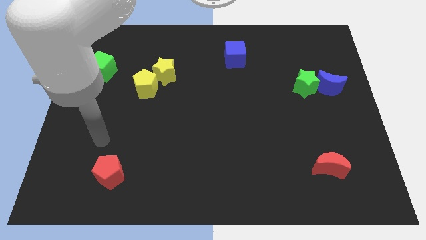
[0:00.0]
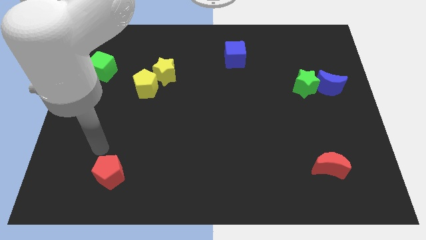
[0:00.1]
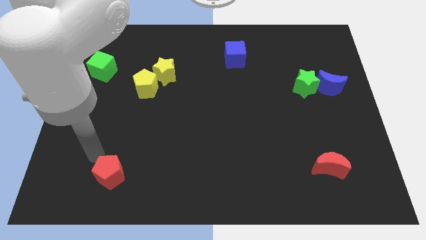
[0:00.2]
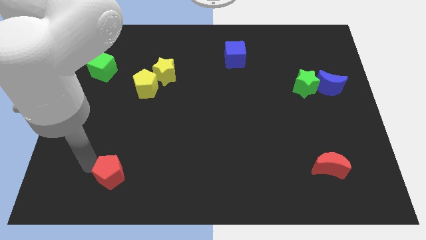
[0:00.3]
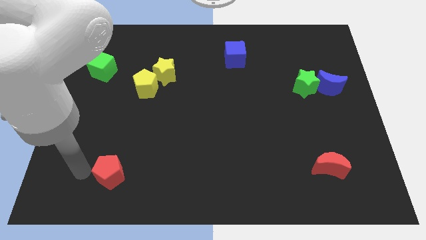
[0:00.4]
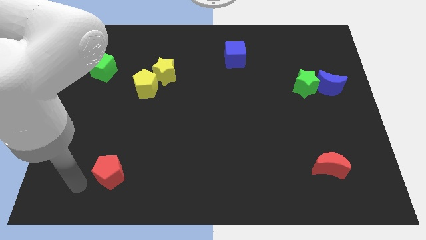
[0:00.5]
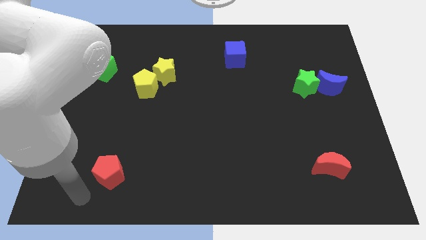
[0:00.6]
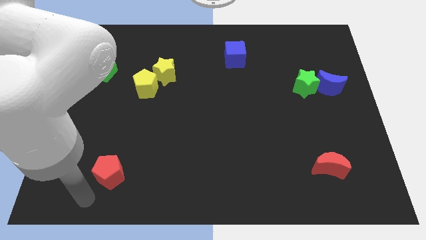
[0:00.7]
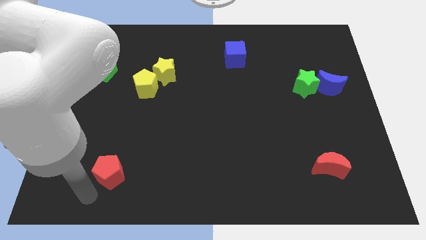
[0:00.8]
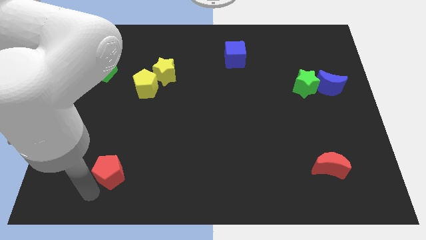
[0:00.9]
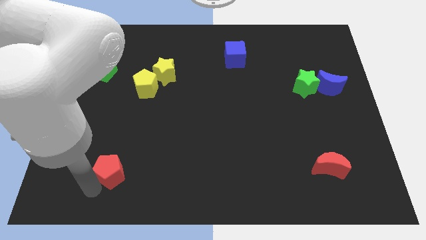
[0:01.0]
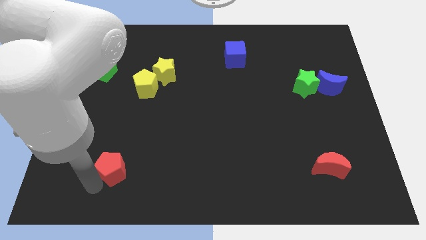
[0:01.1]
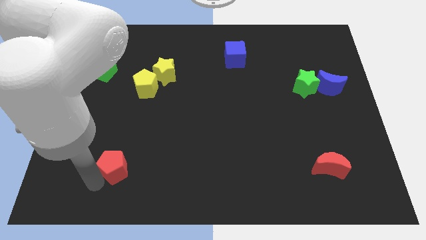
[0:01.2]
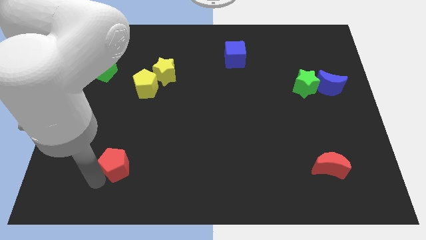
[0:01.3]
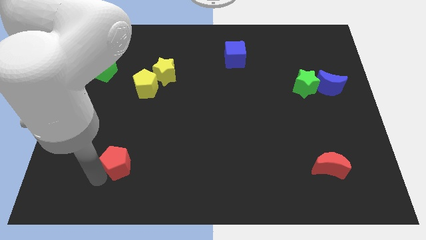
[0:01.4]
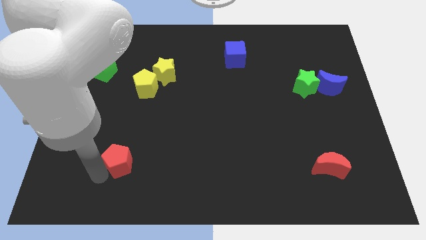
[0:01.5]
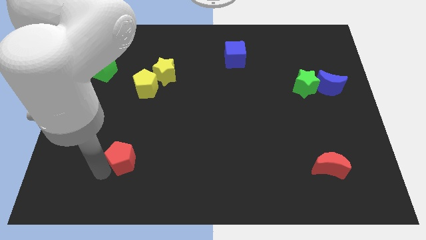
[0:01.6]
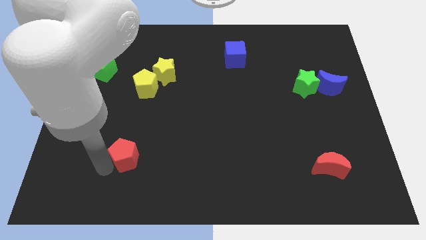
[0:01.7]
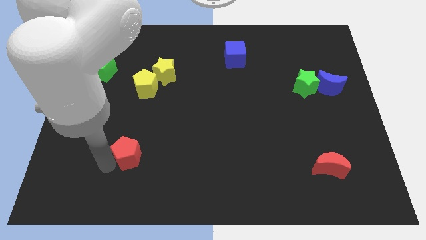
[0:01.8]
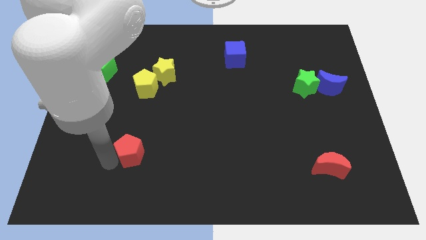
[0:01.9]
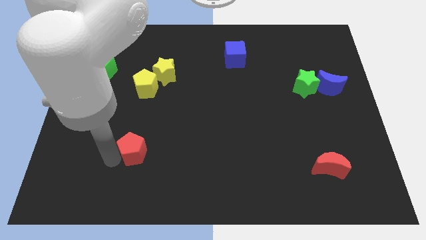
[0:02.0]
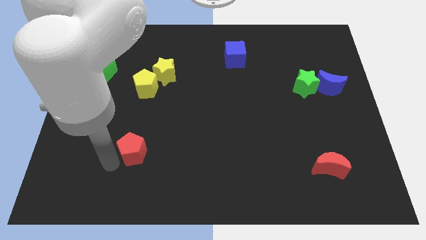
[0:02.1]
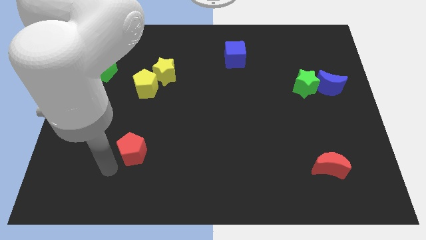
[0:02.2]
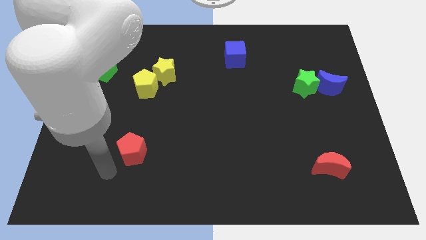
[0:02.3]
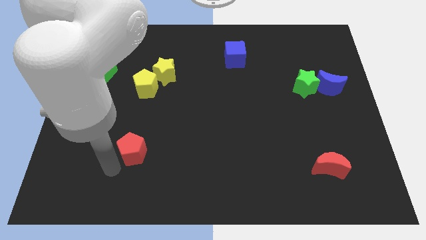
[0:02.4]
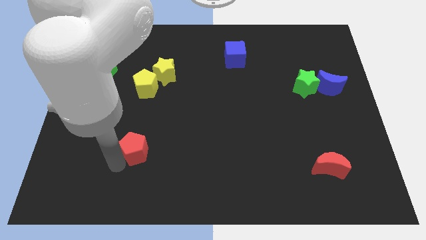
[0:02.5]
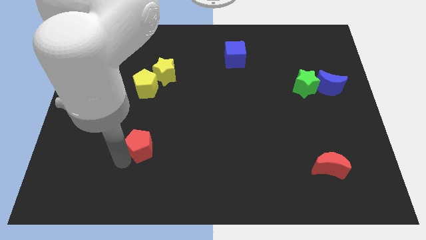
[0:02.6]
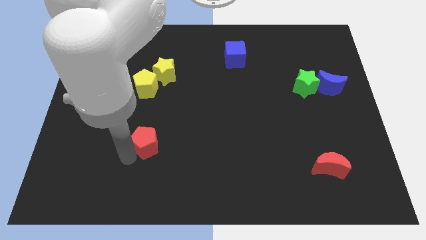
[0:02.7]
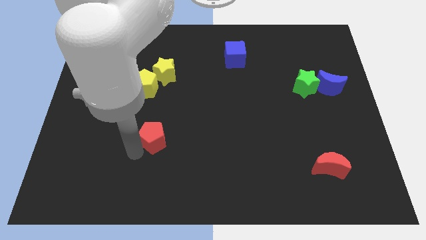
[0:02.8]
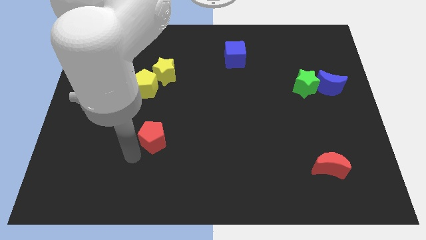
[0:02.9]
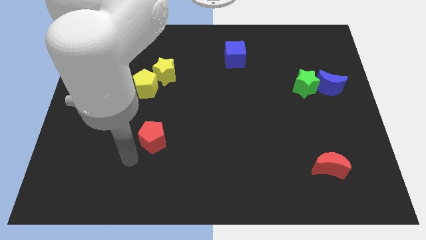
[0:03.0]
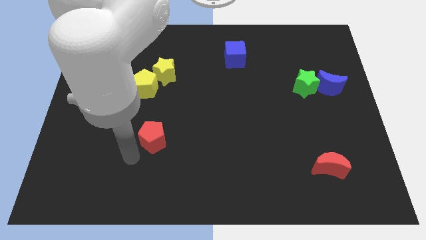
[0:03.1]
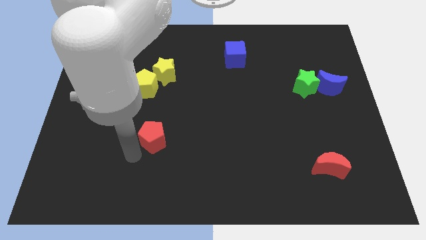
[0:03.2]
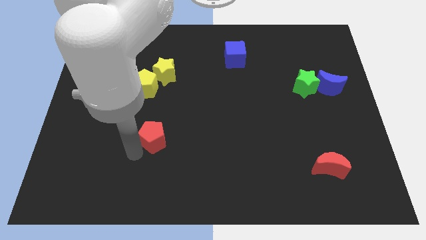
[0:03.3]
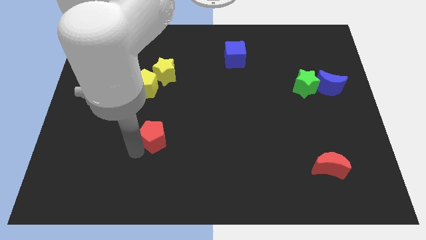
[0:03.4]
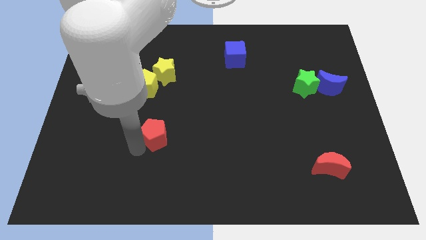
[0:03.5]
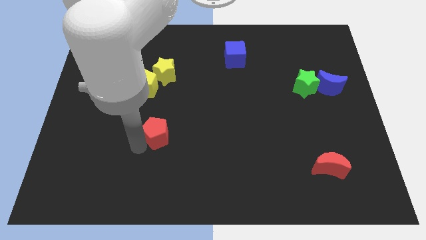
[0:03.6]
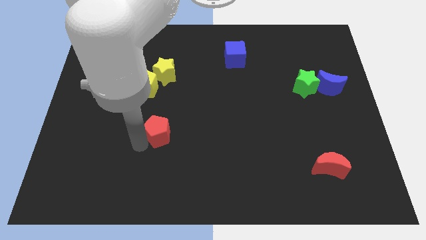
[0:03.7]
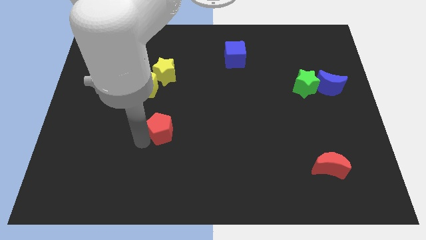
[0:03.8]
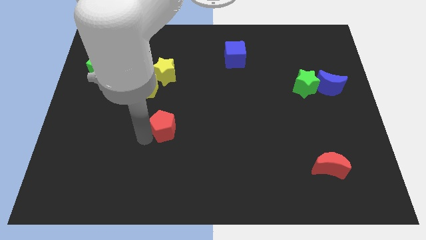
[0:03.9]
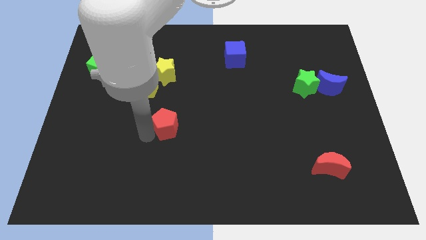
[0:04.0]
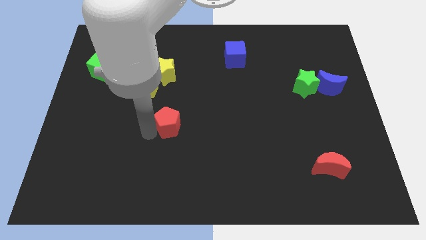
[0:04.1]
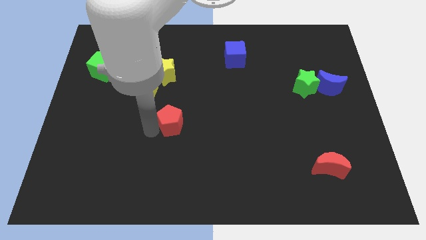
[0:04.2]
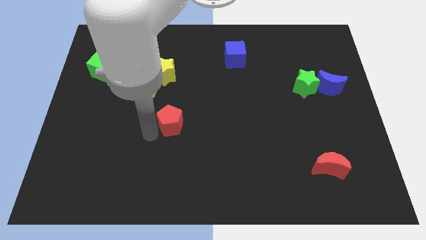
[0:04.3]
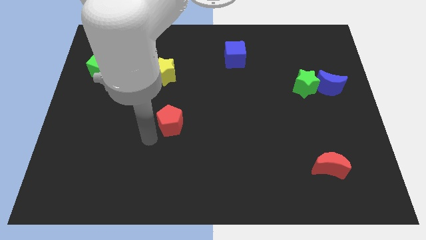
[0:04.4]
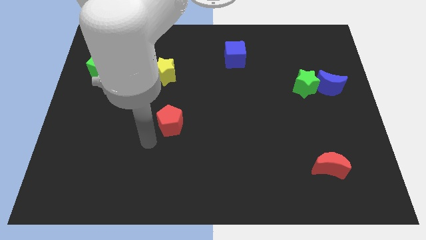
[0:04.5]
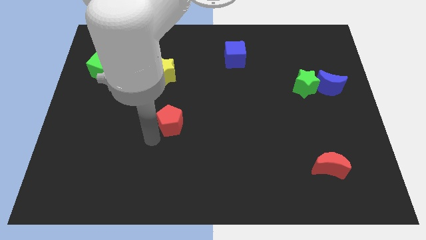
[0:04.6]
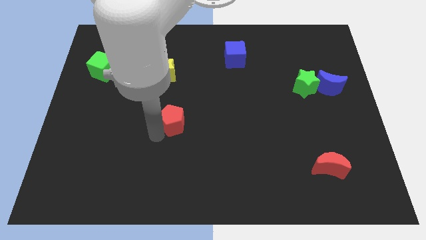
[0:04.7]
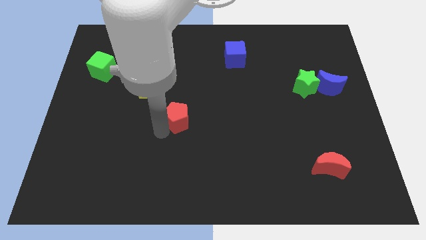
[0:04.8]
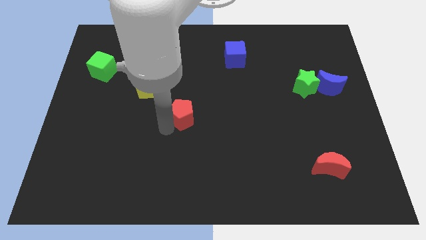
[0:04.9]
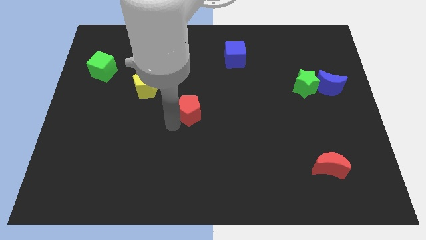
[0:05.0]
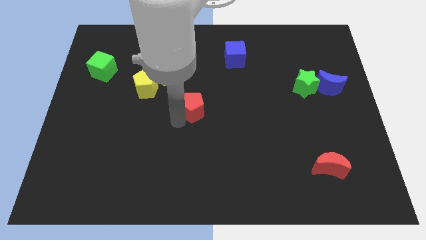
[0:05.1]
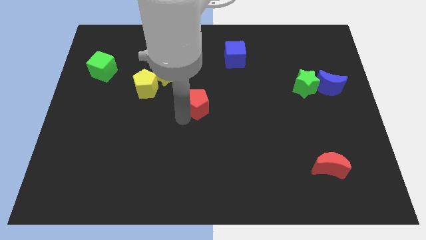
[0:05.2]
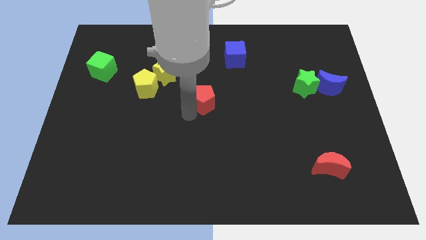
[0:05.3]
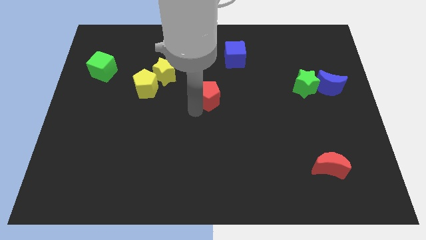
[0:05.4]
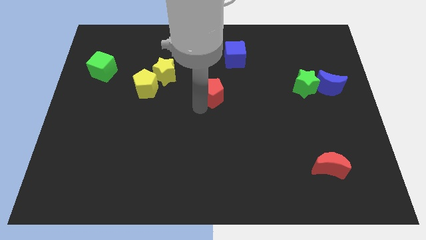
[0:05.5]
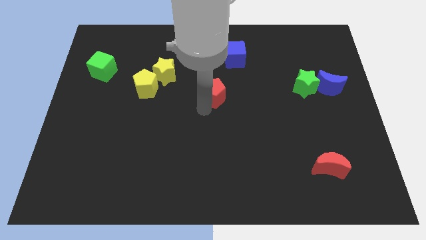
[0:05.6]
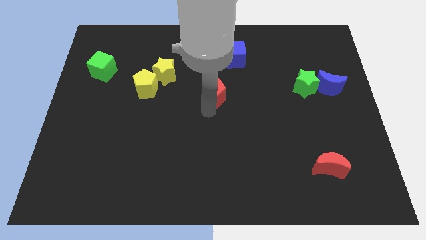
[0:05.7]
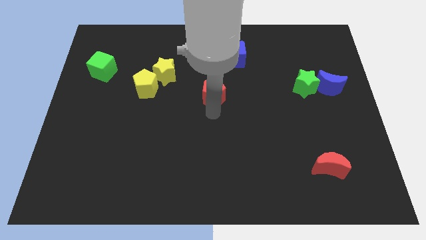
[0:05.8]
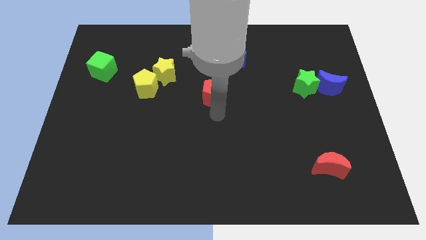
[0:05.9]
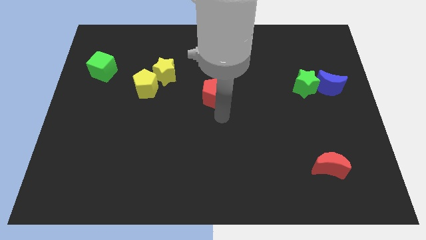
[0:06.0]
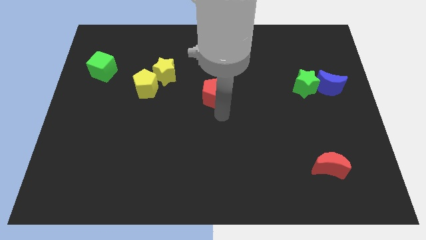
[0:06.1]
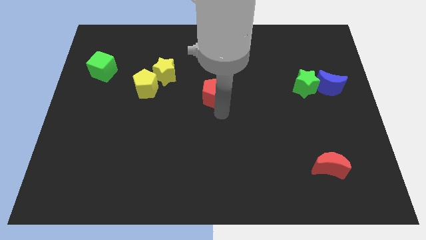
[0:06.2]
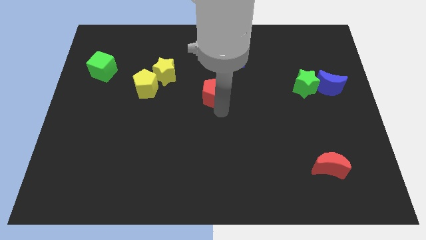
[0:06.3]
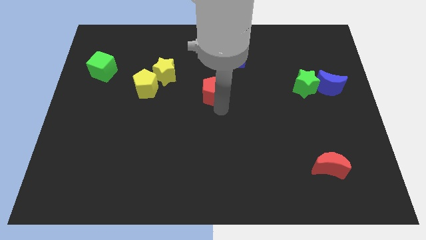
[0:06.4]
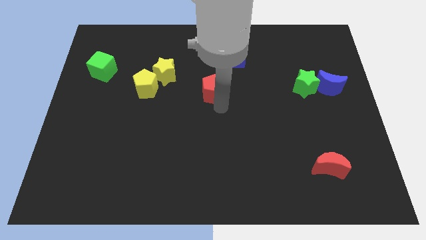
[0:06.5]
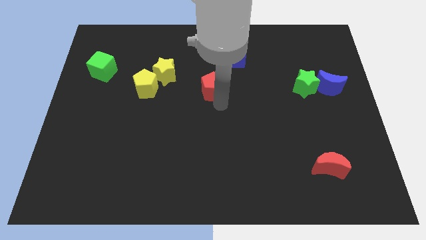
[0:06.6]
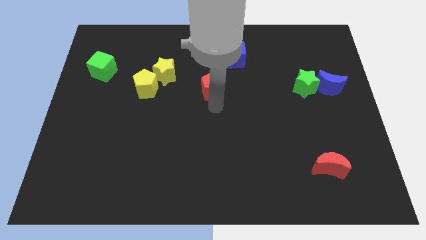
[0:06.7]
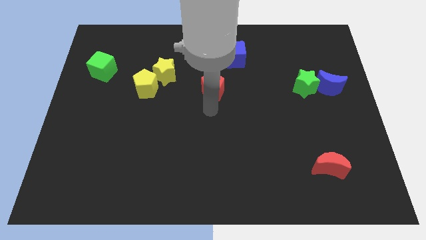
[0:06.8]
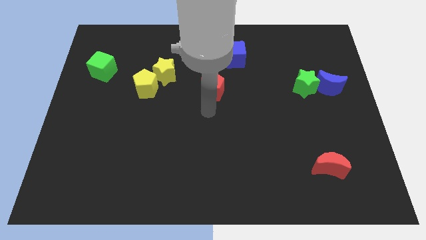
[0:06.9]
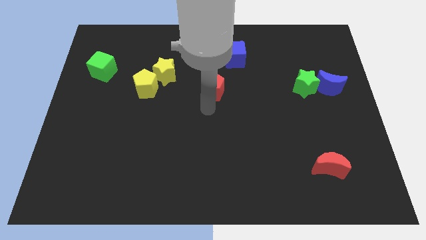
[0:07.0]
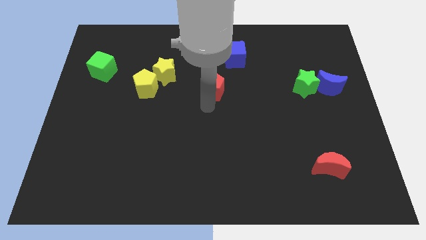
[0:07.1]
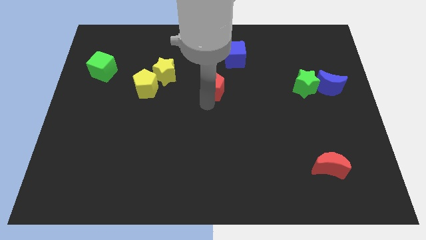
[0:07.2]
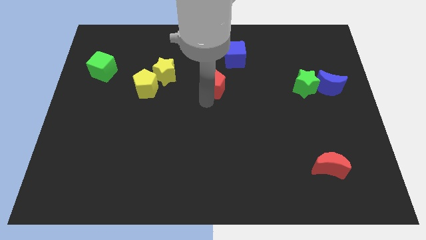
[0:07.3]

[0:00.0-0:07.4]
push the red pentagon to the bottom left side of the blue cube

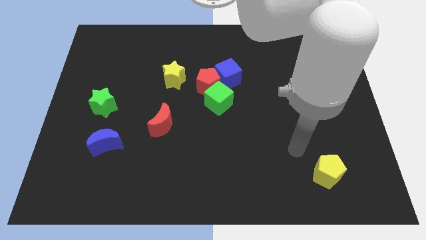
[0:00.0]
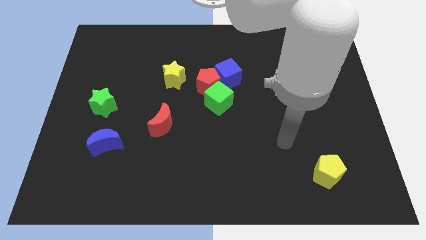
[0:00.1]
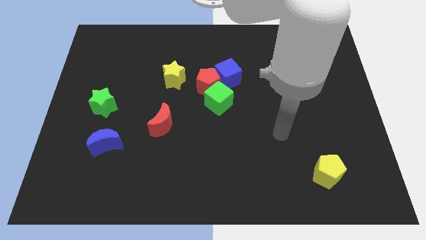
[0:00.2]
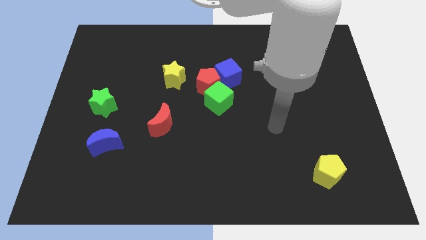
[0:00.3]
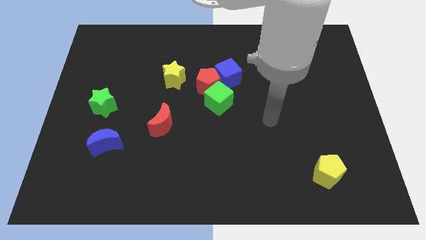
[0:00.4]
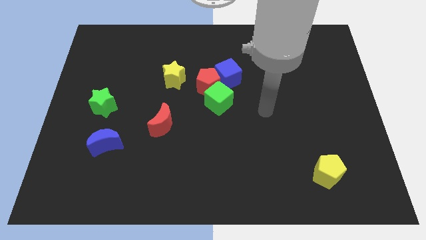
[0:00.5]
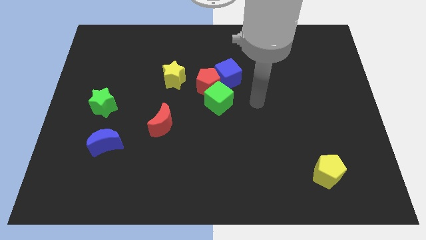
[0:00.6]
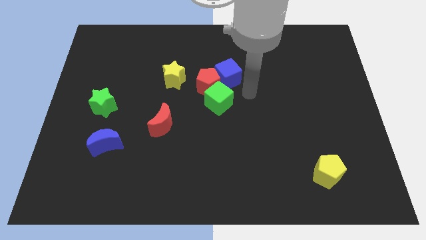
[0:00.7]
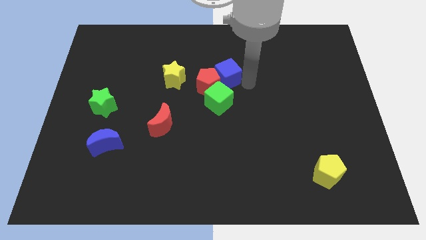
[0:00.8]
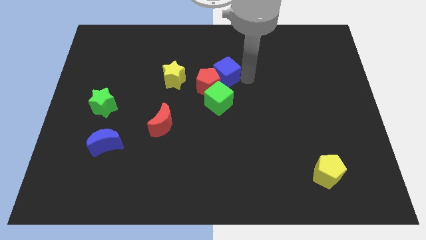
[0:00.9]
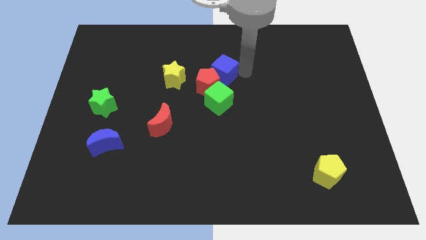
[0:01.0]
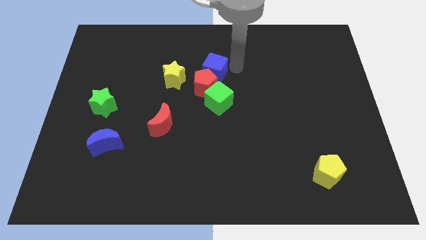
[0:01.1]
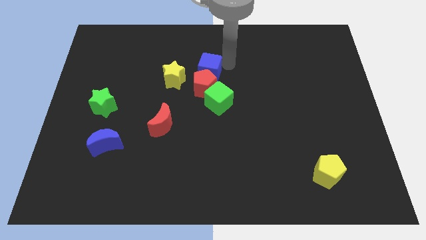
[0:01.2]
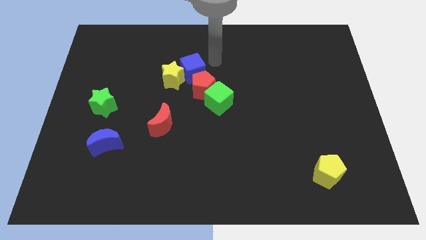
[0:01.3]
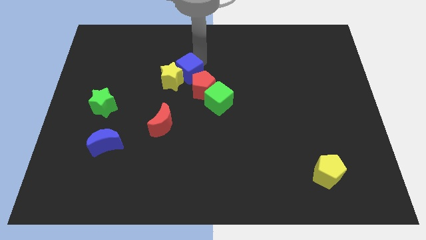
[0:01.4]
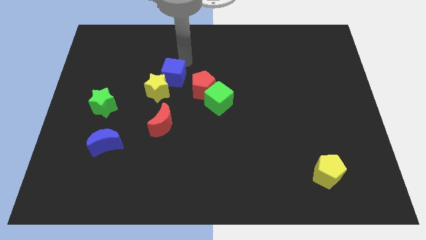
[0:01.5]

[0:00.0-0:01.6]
put the blue cube above the red moon
